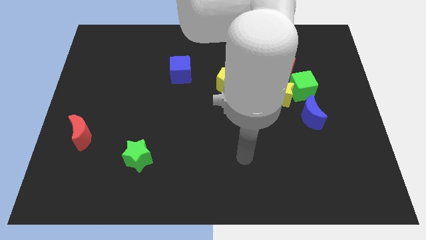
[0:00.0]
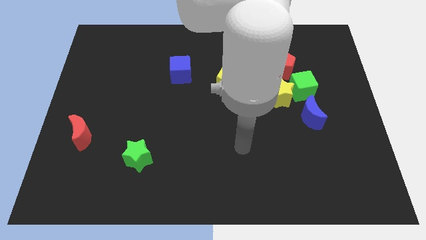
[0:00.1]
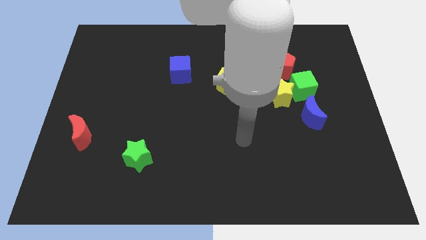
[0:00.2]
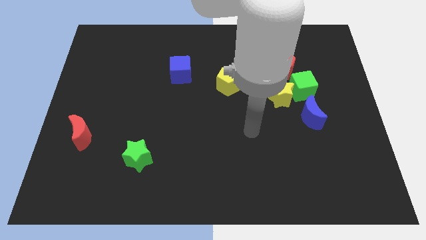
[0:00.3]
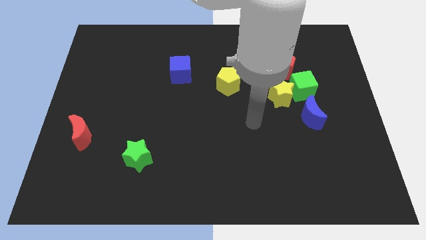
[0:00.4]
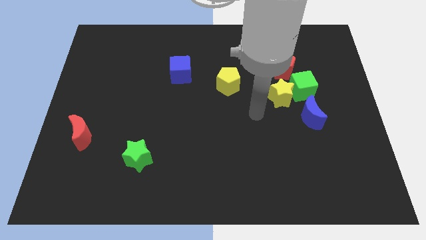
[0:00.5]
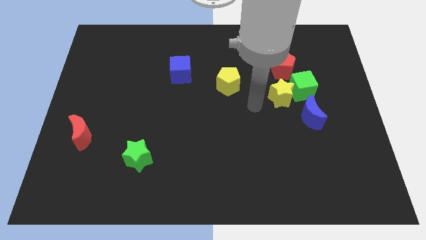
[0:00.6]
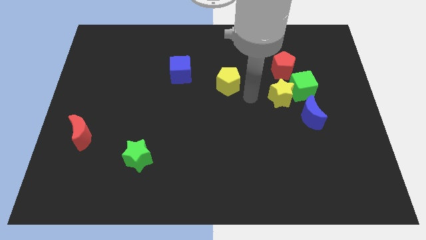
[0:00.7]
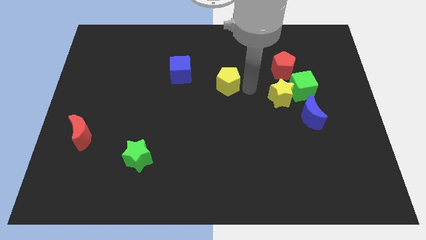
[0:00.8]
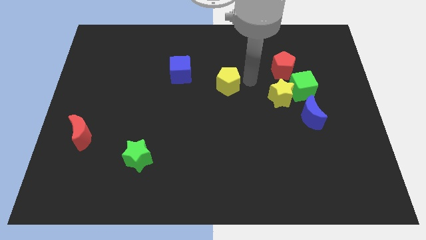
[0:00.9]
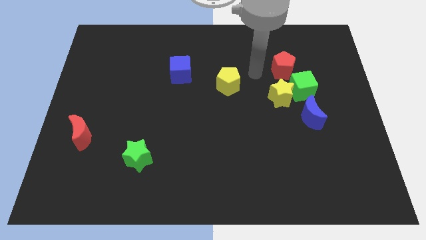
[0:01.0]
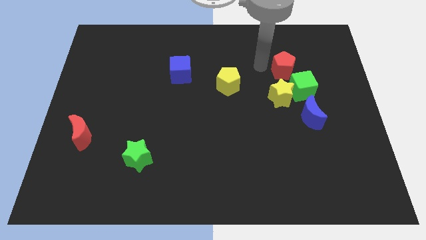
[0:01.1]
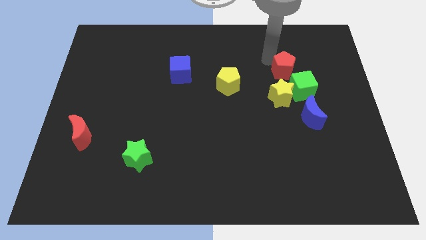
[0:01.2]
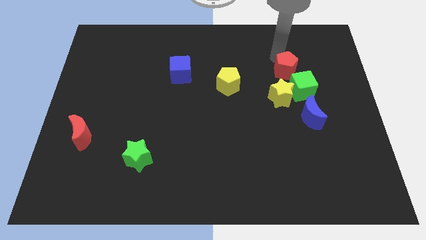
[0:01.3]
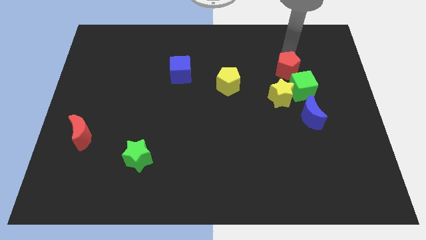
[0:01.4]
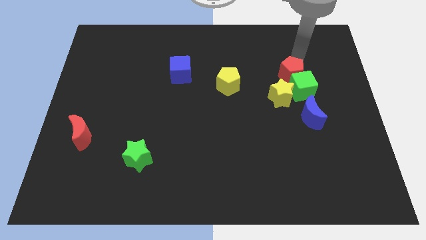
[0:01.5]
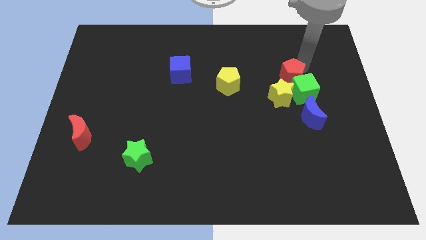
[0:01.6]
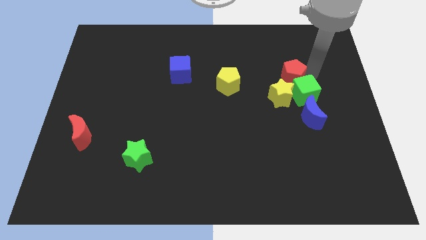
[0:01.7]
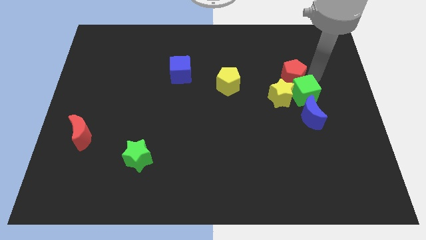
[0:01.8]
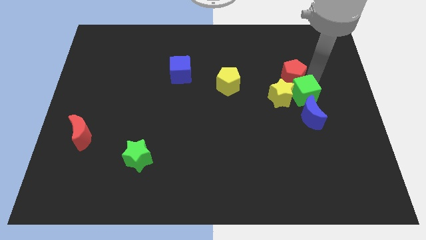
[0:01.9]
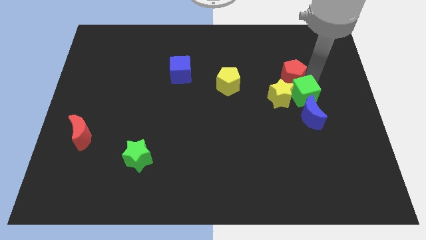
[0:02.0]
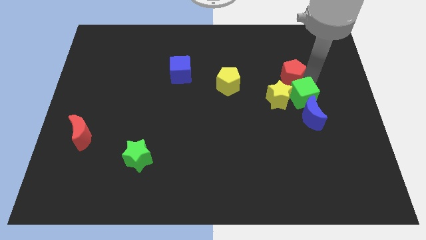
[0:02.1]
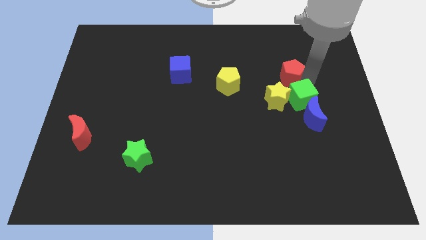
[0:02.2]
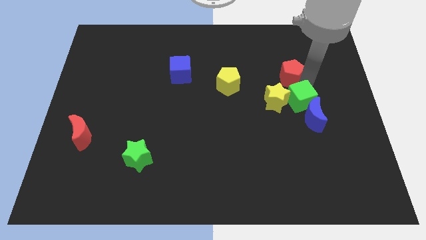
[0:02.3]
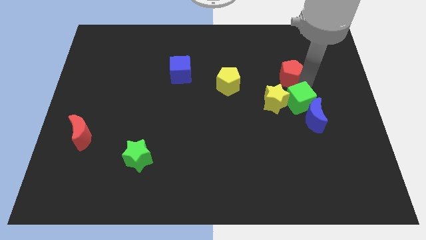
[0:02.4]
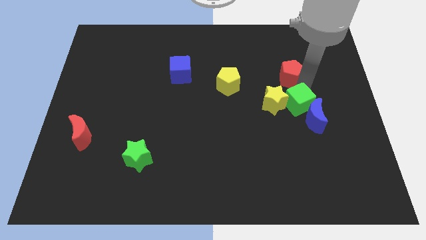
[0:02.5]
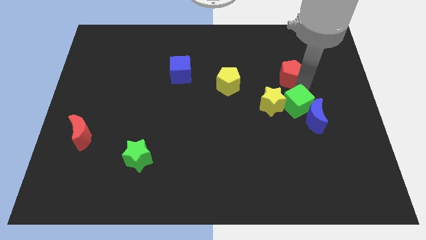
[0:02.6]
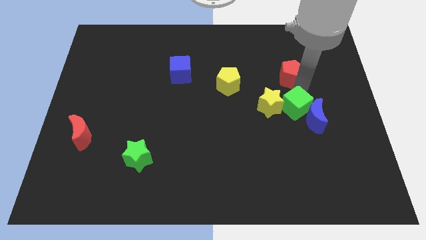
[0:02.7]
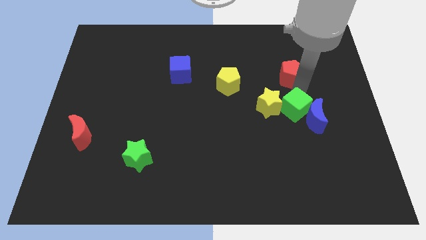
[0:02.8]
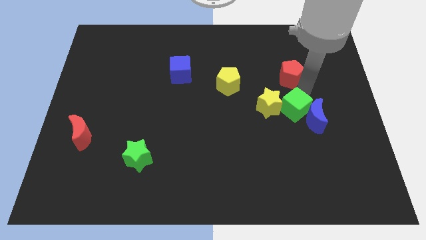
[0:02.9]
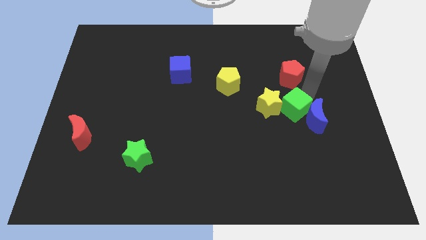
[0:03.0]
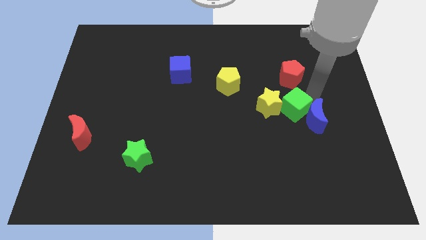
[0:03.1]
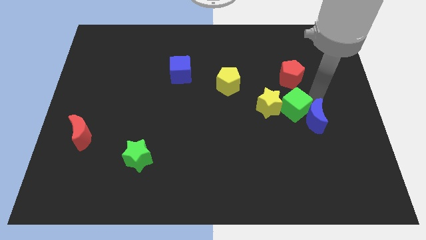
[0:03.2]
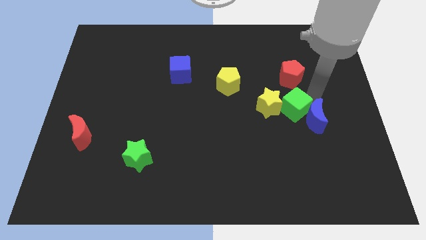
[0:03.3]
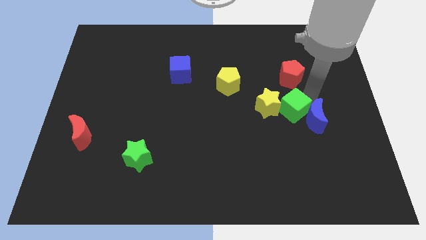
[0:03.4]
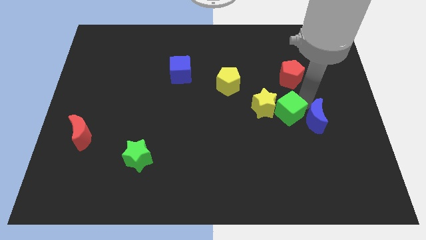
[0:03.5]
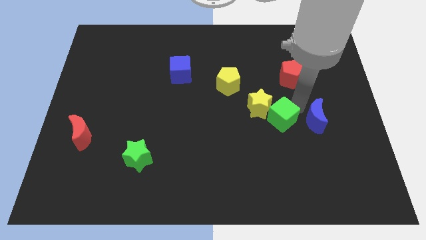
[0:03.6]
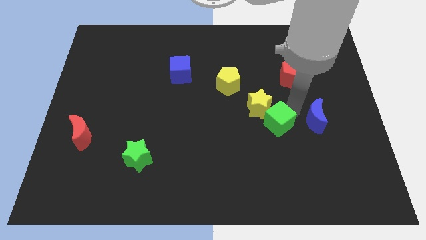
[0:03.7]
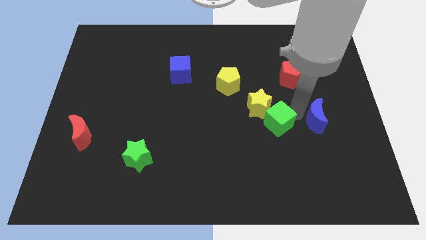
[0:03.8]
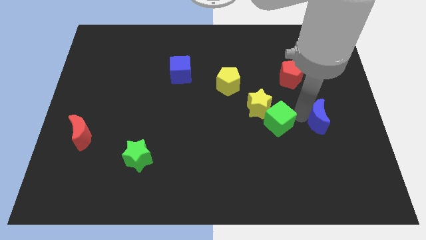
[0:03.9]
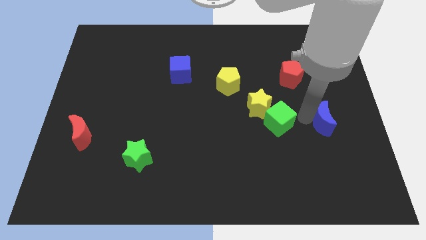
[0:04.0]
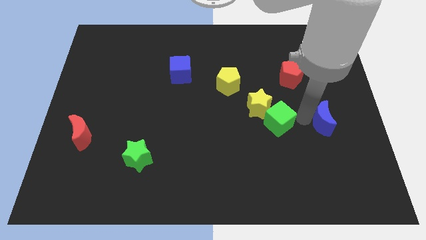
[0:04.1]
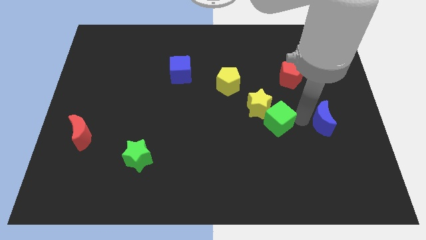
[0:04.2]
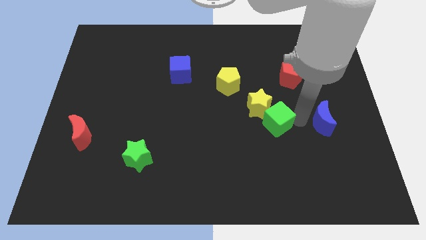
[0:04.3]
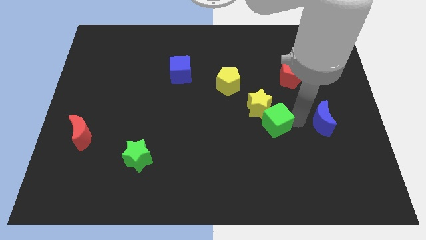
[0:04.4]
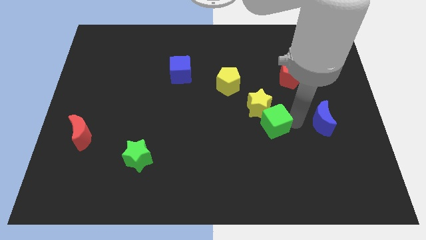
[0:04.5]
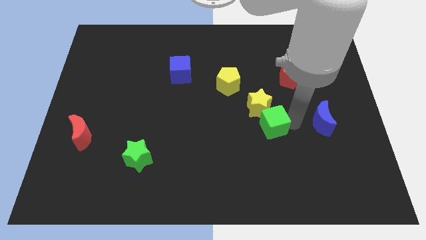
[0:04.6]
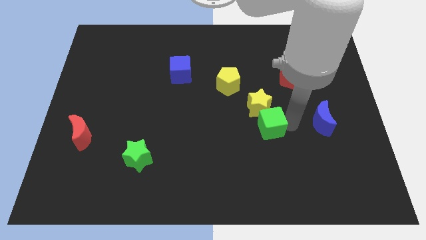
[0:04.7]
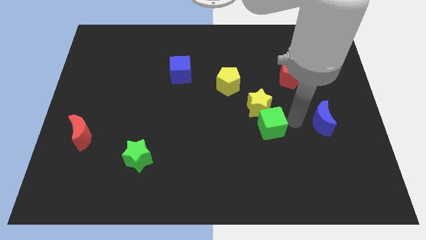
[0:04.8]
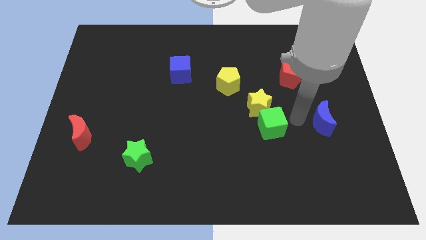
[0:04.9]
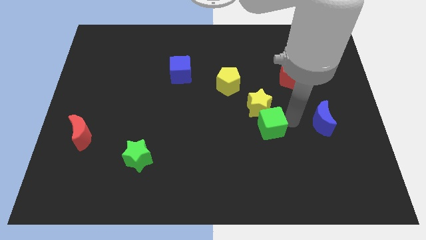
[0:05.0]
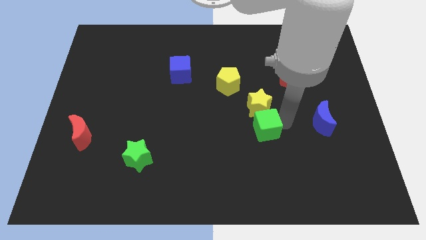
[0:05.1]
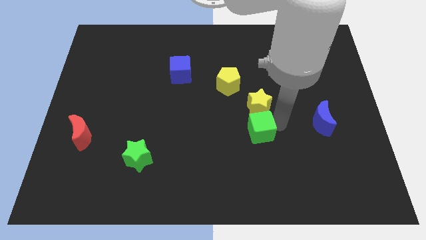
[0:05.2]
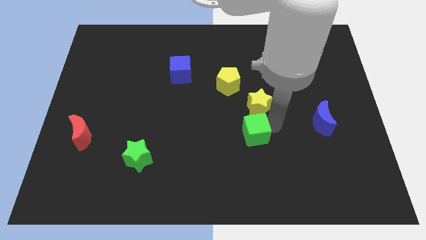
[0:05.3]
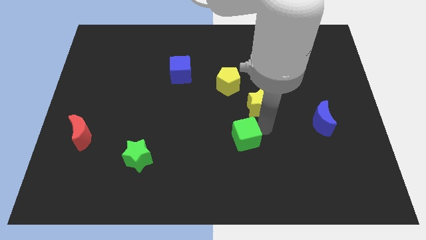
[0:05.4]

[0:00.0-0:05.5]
push the green cube diagonally downwards and left

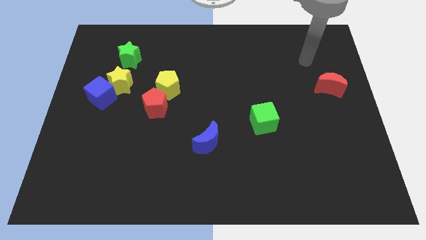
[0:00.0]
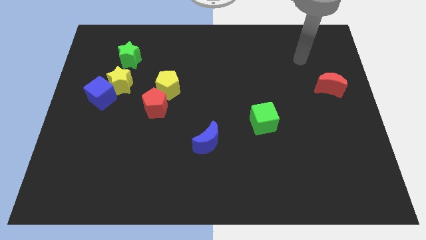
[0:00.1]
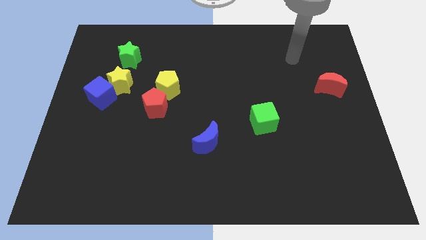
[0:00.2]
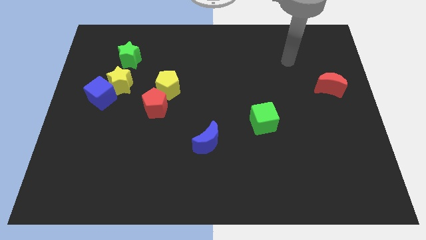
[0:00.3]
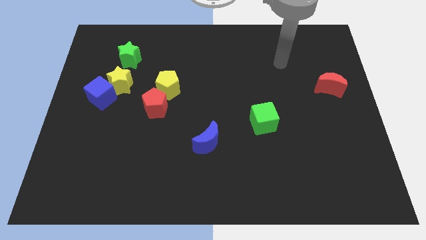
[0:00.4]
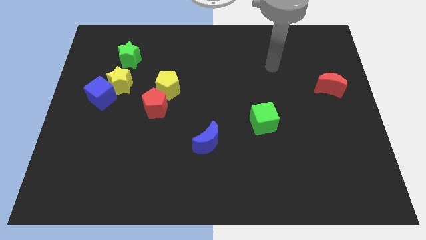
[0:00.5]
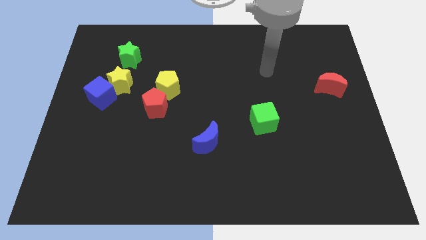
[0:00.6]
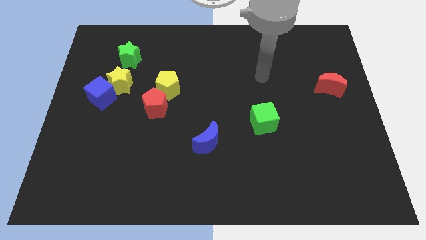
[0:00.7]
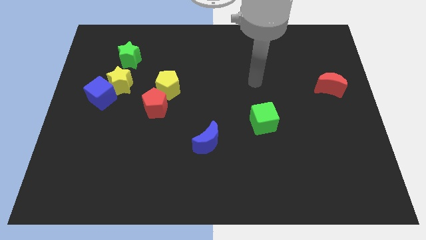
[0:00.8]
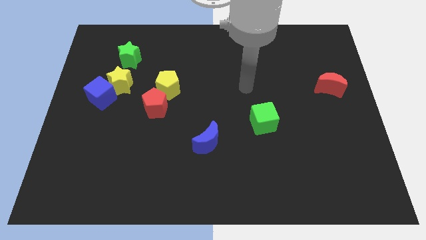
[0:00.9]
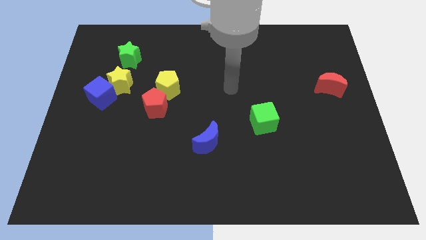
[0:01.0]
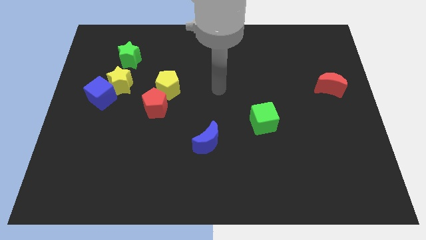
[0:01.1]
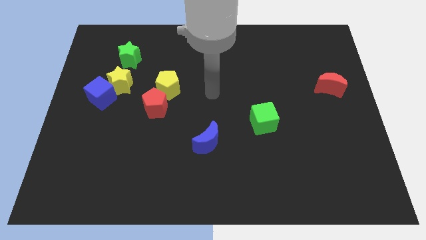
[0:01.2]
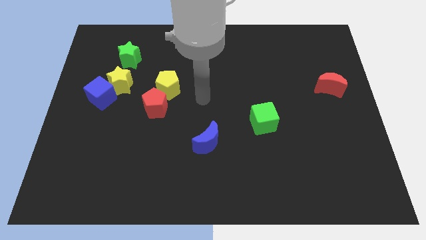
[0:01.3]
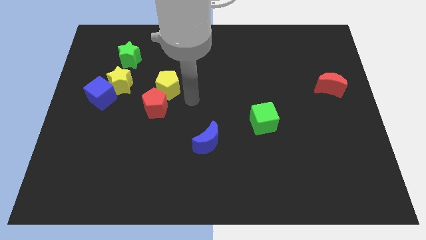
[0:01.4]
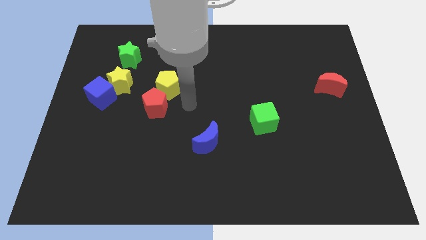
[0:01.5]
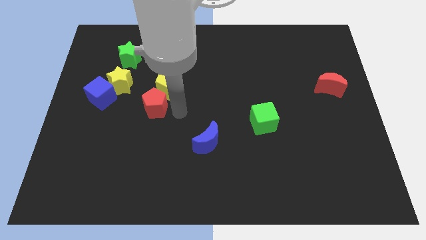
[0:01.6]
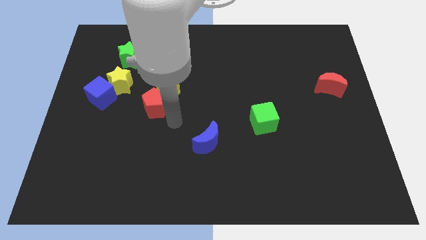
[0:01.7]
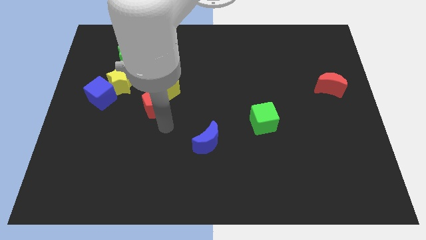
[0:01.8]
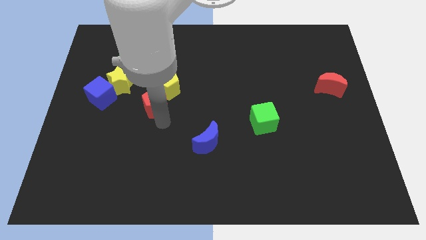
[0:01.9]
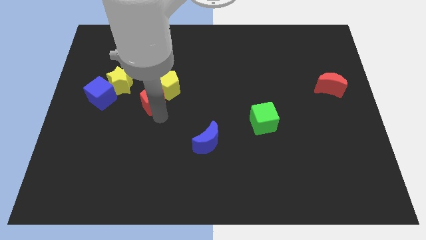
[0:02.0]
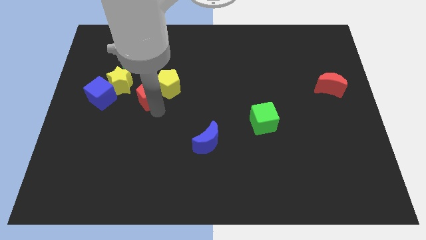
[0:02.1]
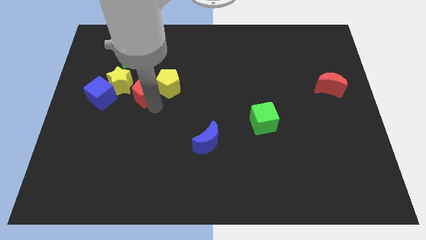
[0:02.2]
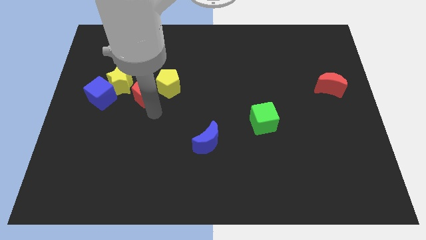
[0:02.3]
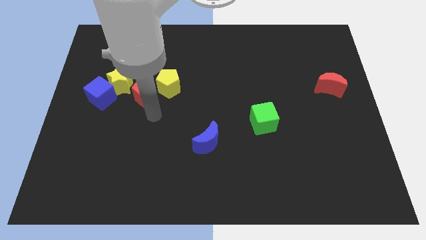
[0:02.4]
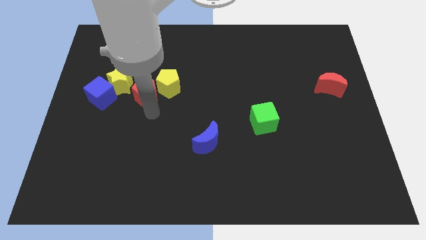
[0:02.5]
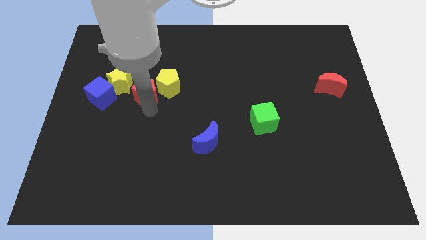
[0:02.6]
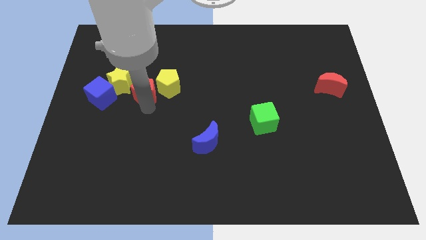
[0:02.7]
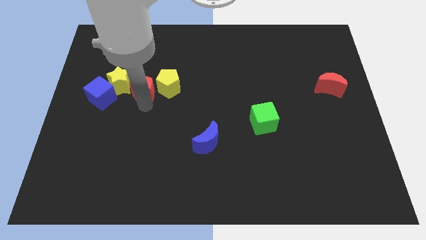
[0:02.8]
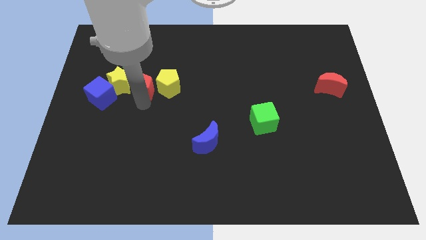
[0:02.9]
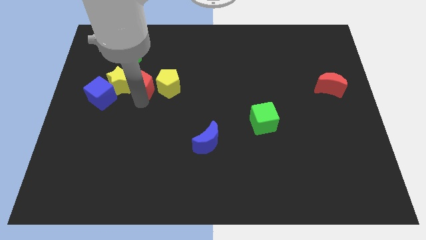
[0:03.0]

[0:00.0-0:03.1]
push the red pentagon a little upwards and to the left

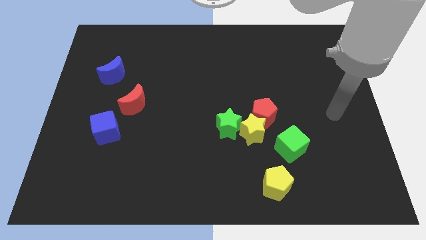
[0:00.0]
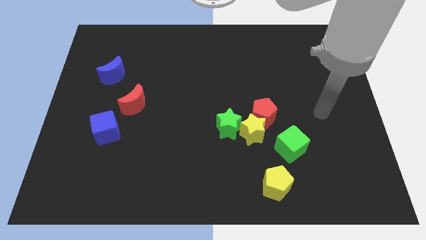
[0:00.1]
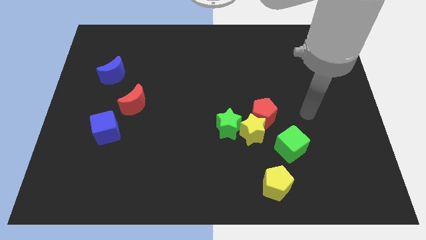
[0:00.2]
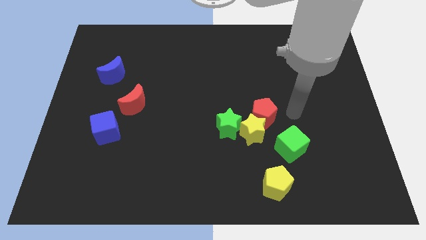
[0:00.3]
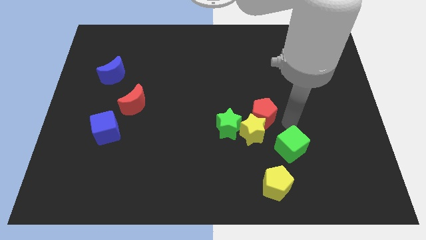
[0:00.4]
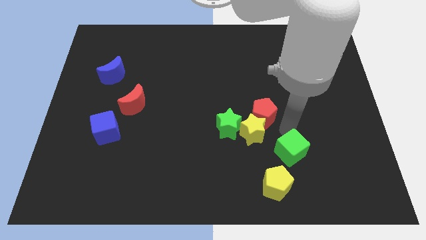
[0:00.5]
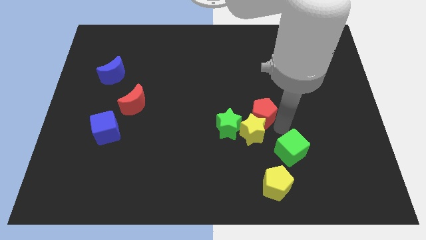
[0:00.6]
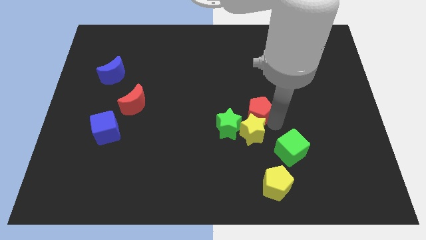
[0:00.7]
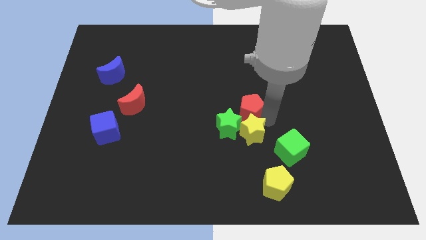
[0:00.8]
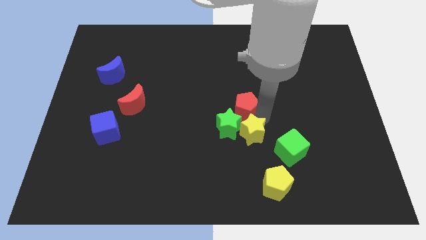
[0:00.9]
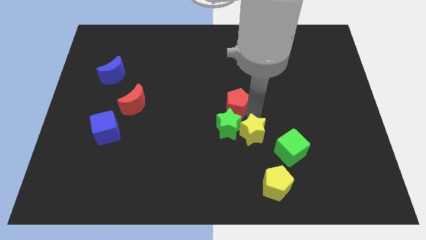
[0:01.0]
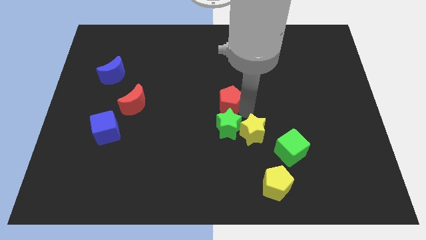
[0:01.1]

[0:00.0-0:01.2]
slide the red pentagon upwards and then to the left slightly
